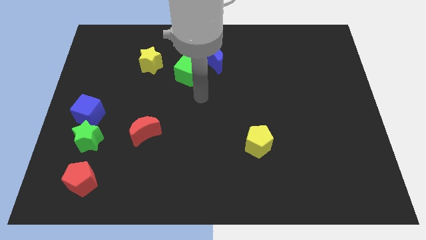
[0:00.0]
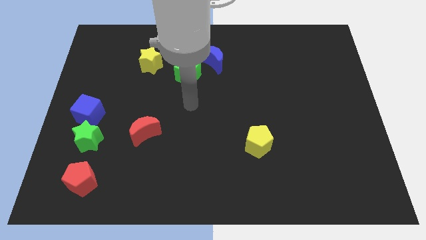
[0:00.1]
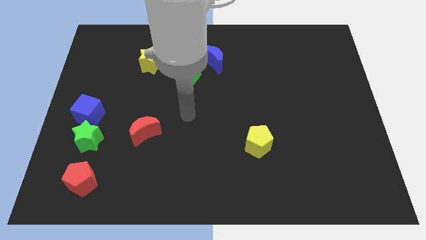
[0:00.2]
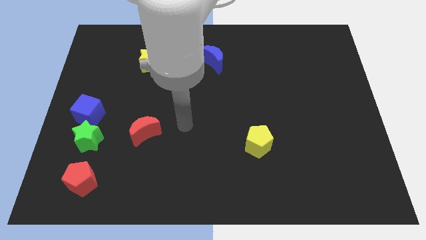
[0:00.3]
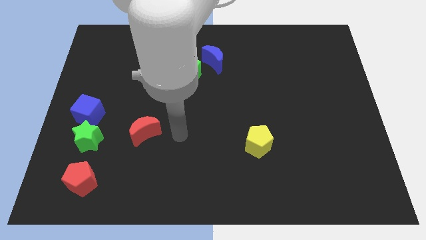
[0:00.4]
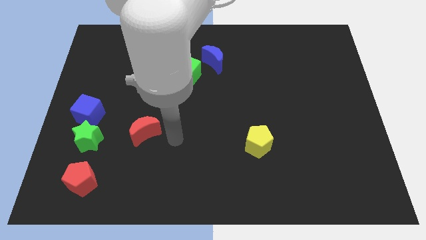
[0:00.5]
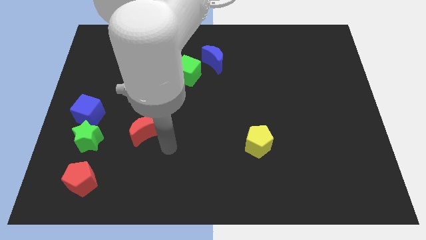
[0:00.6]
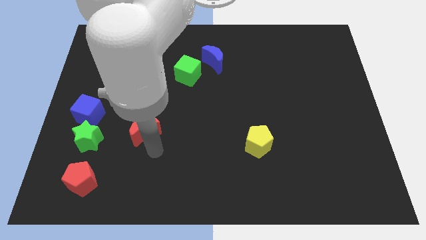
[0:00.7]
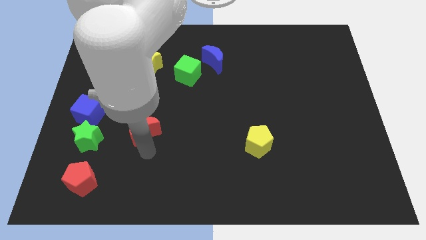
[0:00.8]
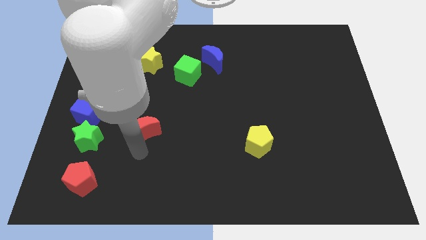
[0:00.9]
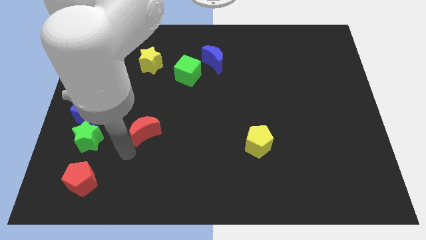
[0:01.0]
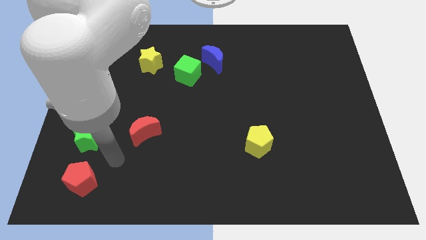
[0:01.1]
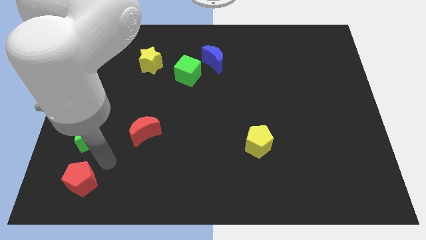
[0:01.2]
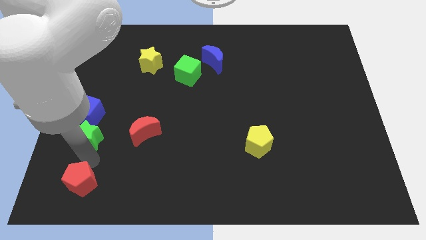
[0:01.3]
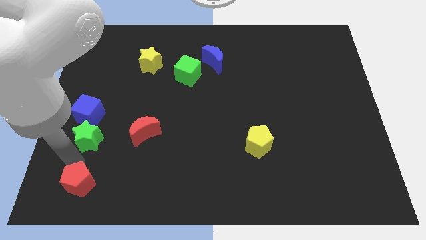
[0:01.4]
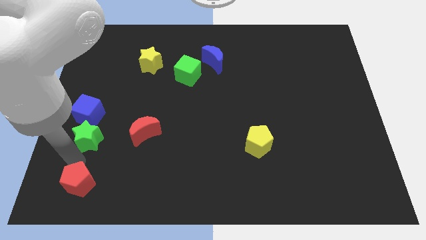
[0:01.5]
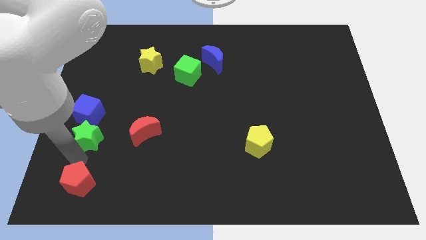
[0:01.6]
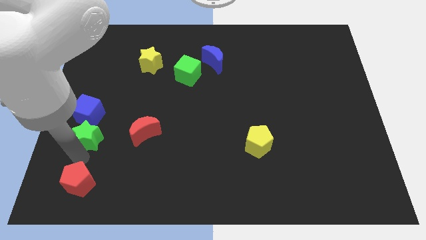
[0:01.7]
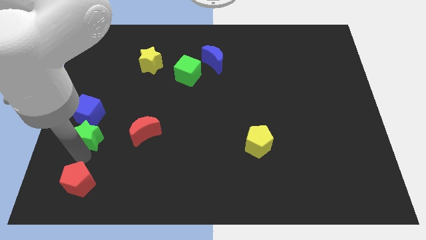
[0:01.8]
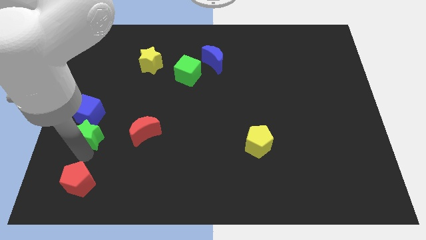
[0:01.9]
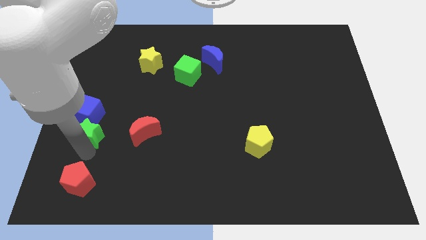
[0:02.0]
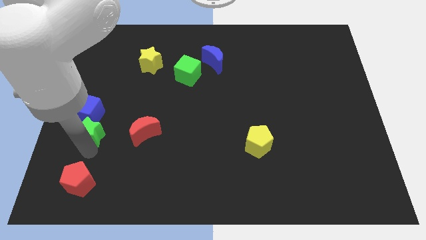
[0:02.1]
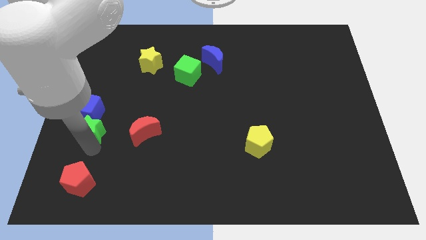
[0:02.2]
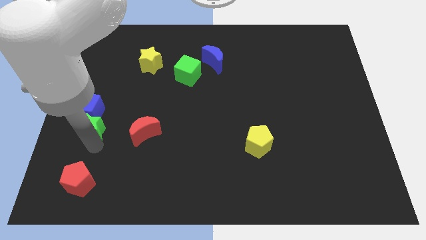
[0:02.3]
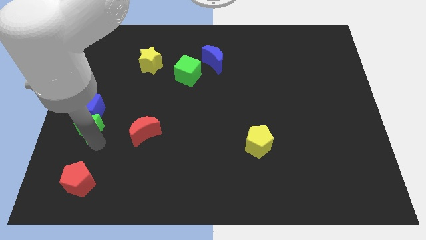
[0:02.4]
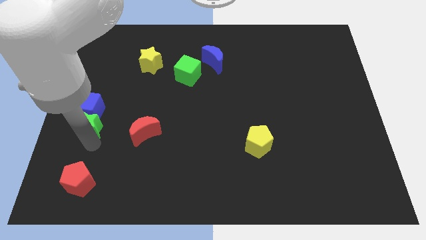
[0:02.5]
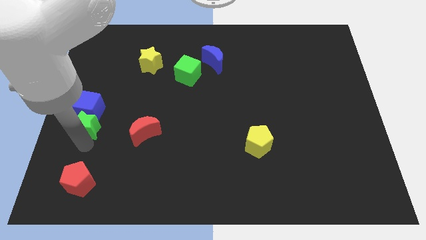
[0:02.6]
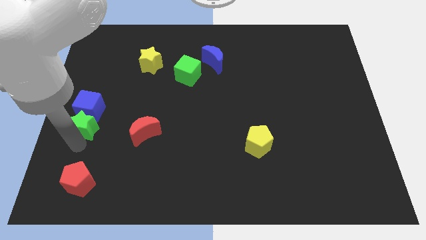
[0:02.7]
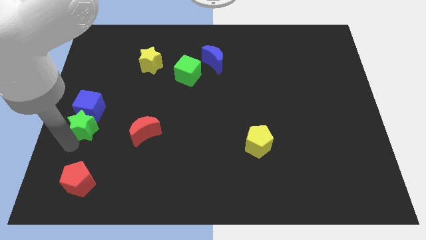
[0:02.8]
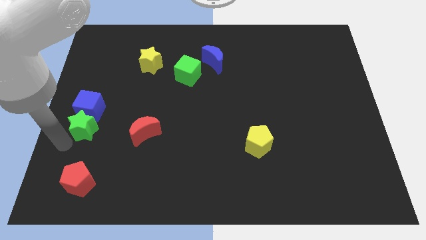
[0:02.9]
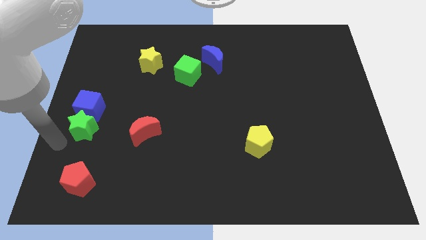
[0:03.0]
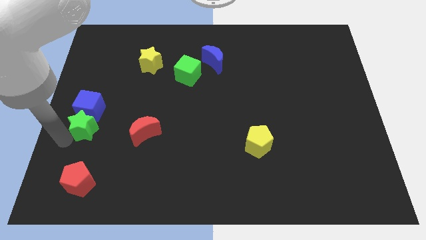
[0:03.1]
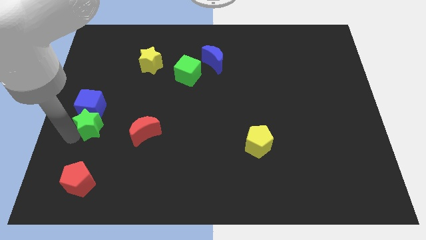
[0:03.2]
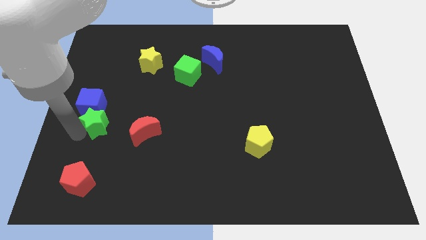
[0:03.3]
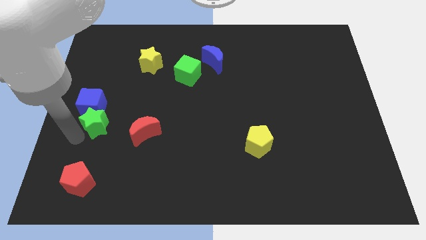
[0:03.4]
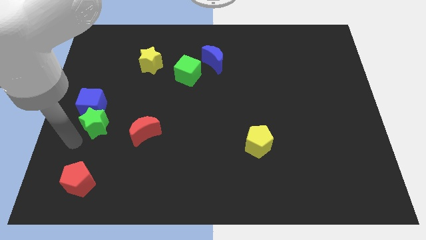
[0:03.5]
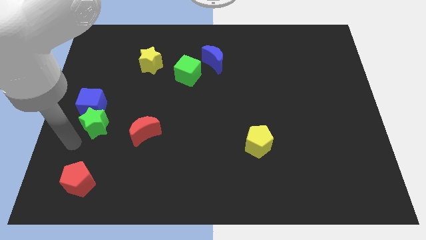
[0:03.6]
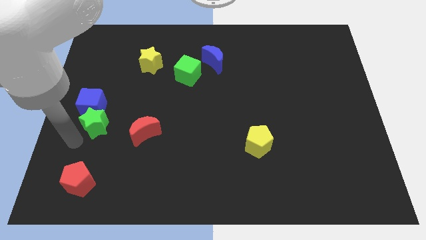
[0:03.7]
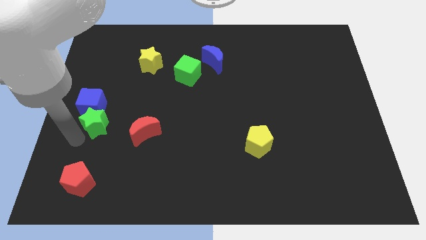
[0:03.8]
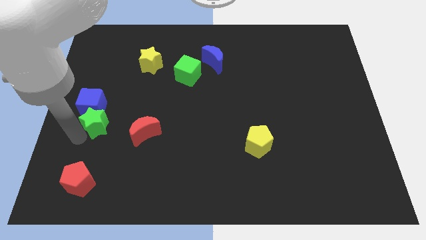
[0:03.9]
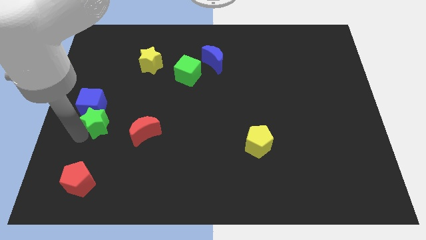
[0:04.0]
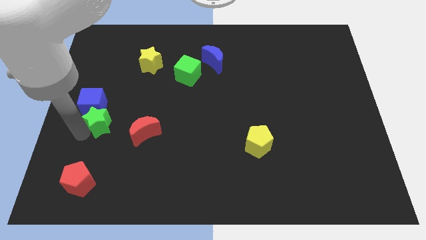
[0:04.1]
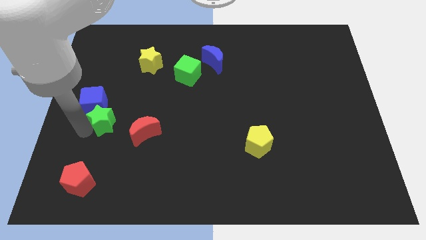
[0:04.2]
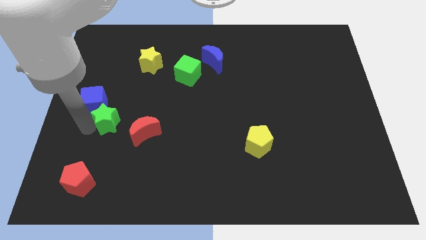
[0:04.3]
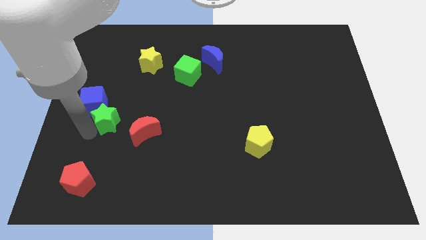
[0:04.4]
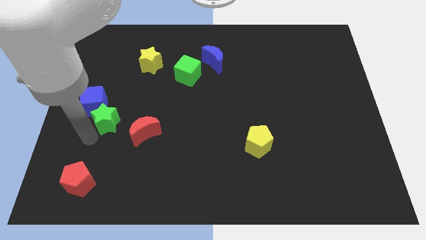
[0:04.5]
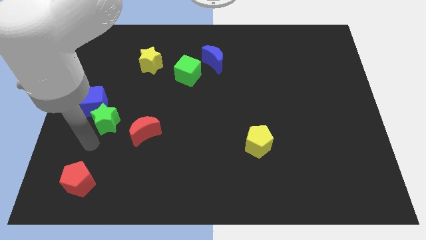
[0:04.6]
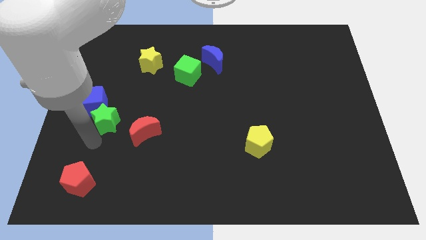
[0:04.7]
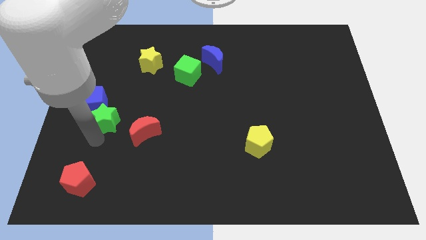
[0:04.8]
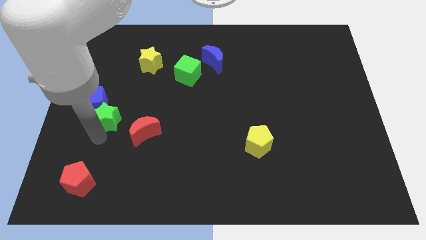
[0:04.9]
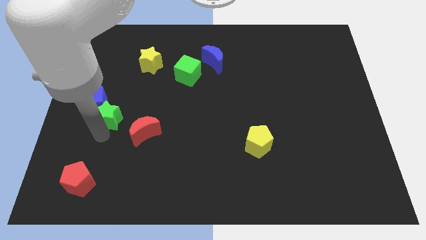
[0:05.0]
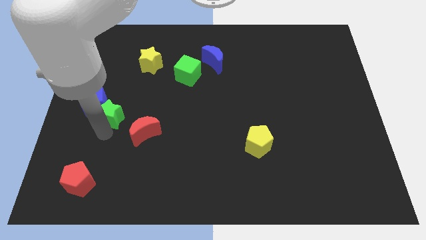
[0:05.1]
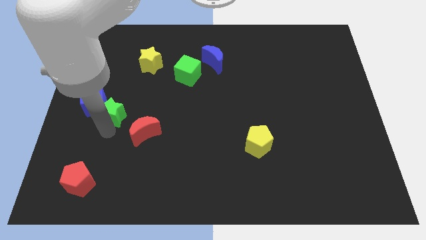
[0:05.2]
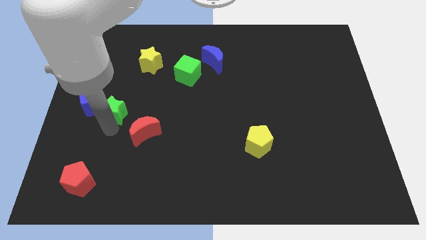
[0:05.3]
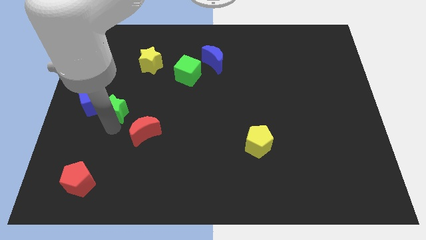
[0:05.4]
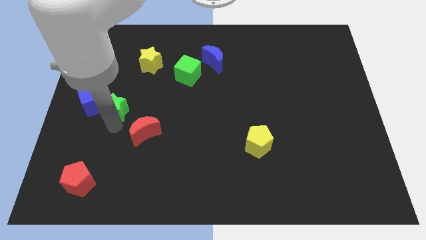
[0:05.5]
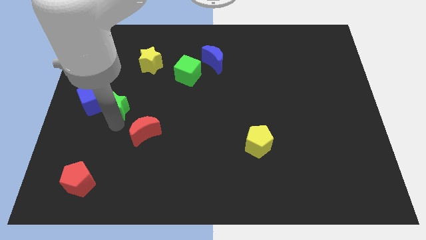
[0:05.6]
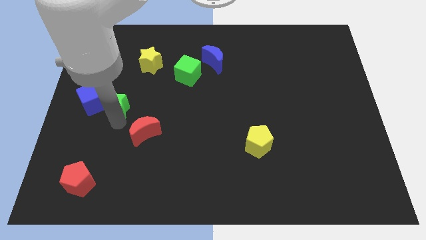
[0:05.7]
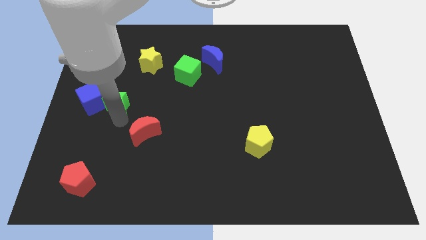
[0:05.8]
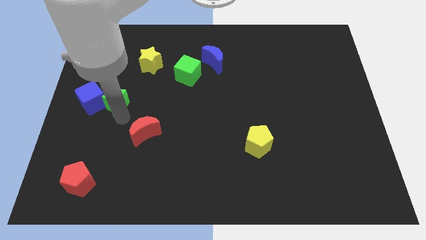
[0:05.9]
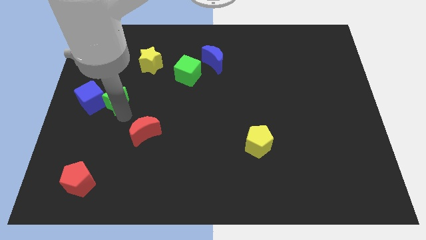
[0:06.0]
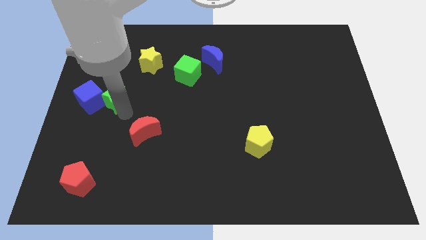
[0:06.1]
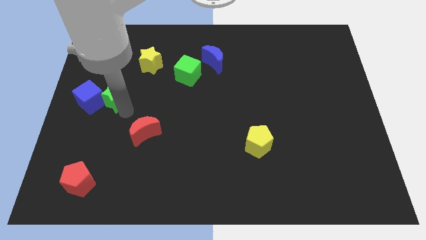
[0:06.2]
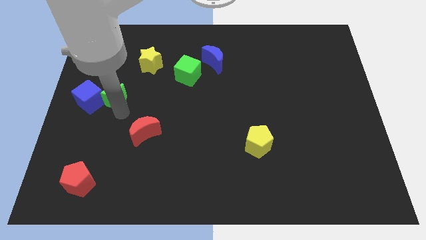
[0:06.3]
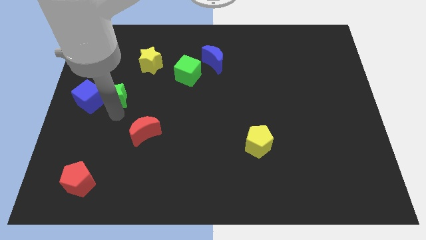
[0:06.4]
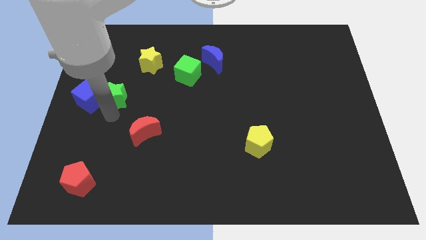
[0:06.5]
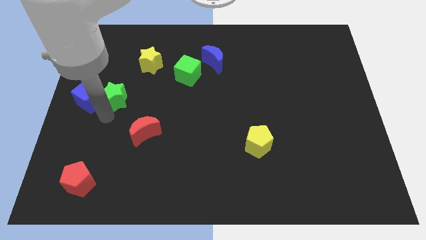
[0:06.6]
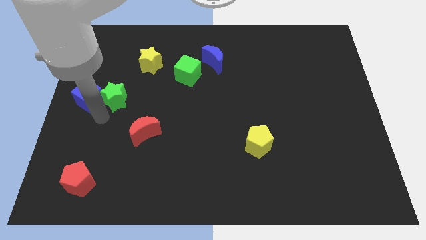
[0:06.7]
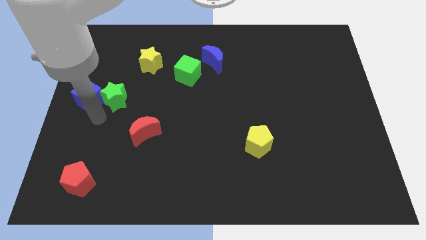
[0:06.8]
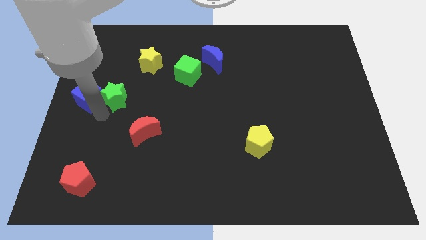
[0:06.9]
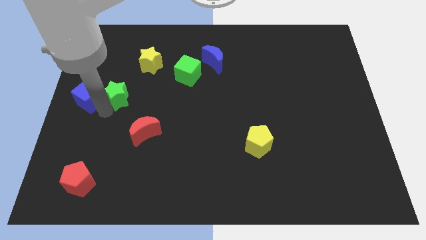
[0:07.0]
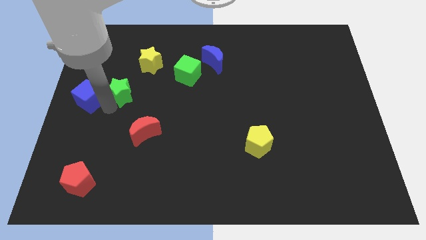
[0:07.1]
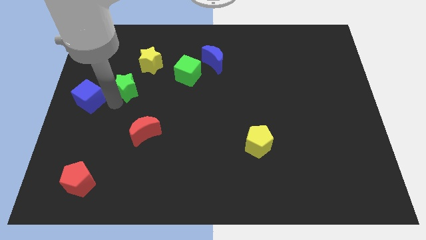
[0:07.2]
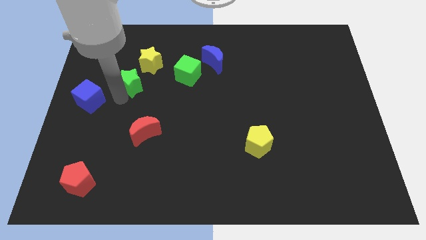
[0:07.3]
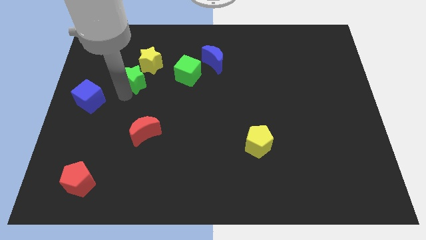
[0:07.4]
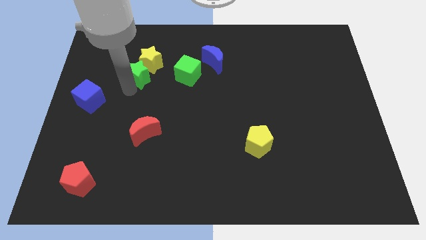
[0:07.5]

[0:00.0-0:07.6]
move the green star to the yellow star
